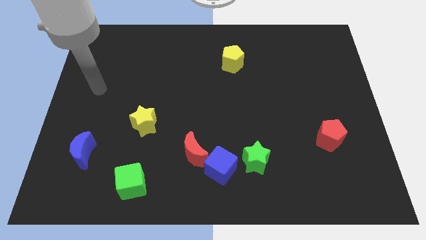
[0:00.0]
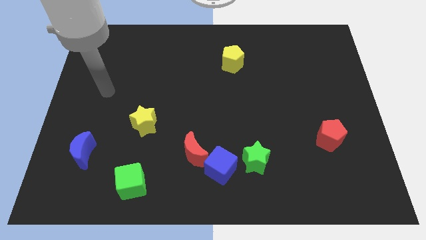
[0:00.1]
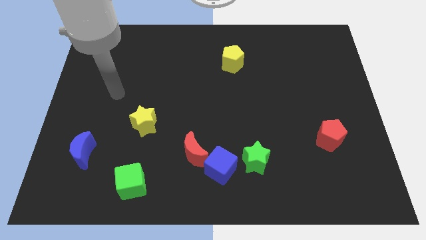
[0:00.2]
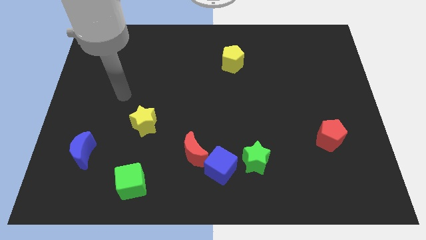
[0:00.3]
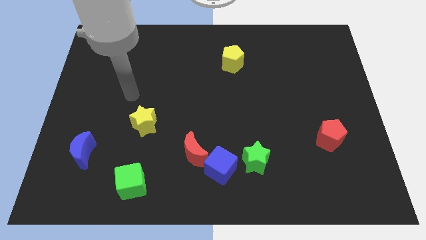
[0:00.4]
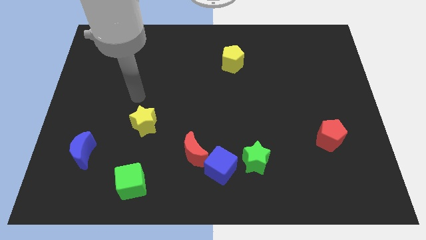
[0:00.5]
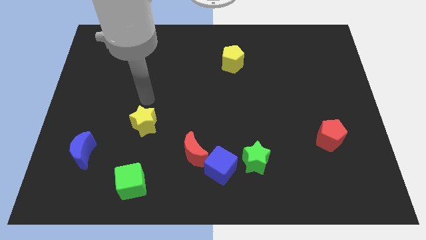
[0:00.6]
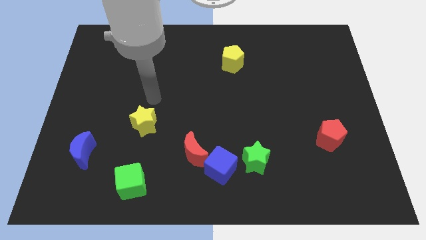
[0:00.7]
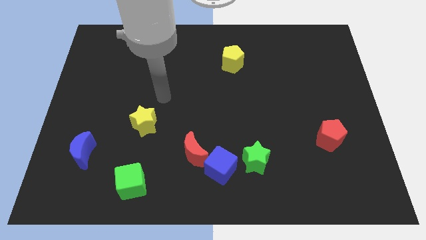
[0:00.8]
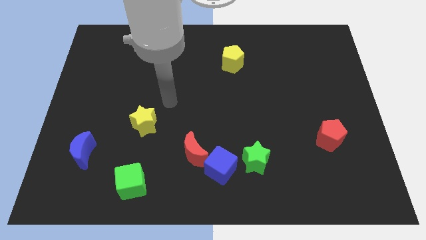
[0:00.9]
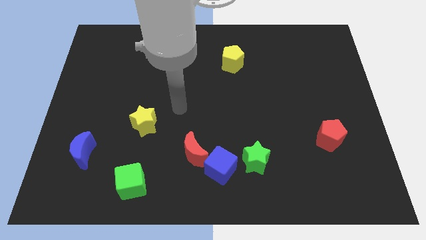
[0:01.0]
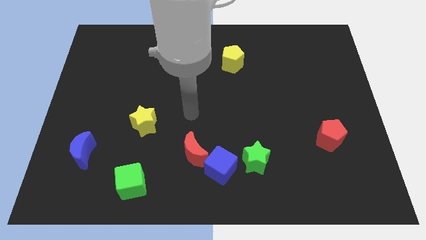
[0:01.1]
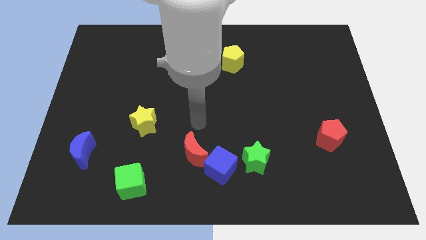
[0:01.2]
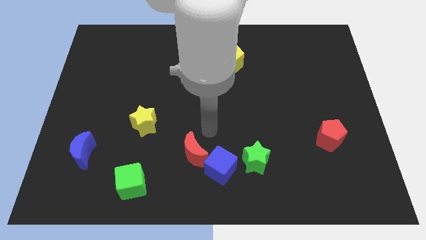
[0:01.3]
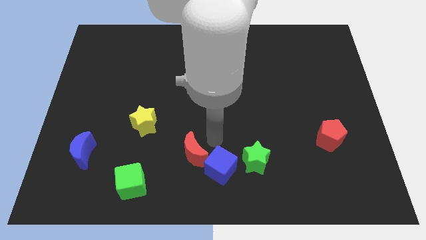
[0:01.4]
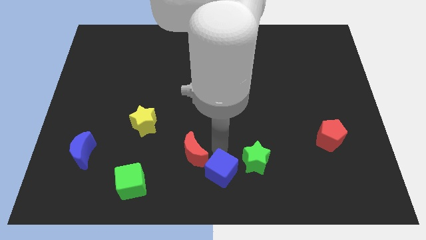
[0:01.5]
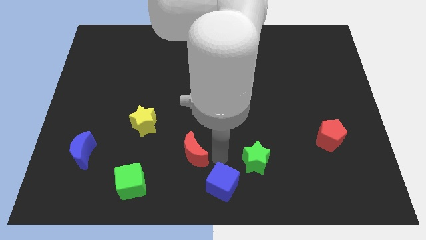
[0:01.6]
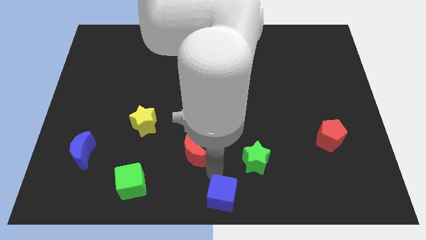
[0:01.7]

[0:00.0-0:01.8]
separate the red moon from the blue cube

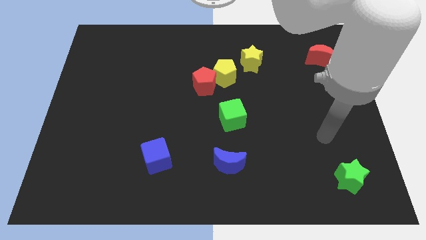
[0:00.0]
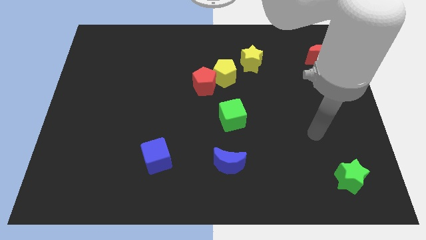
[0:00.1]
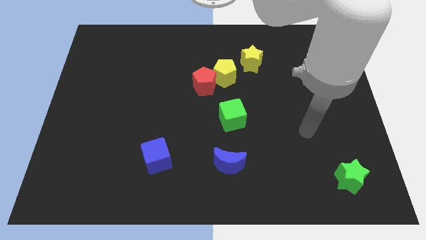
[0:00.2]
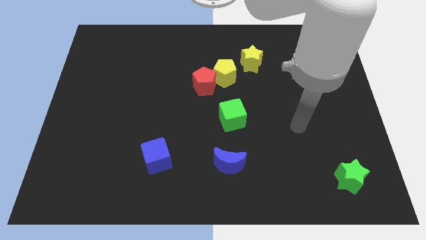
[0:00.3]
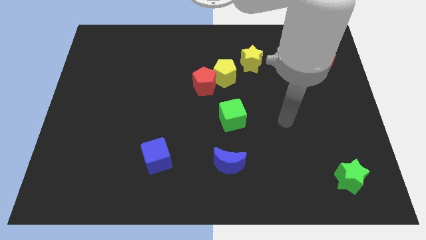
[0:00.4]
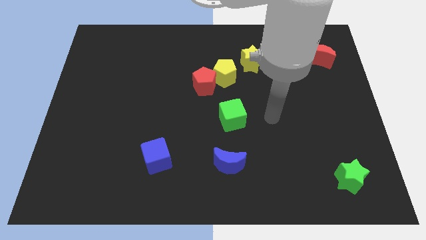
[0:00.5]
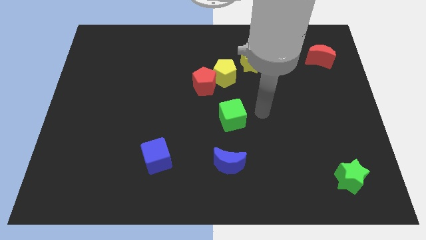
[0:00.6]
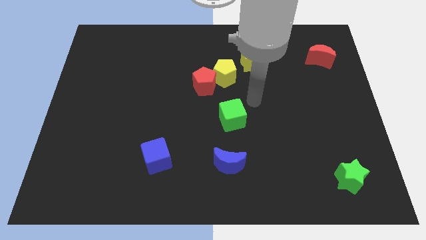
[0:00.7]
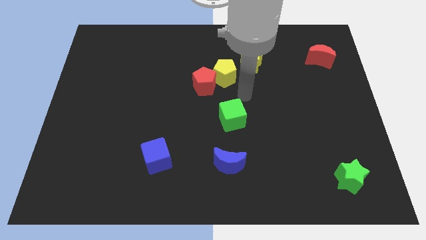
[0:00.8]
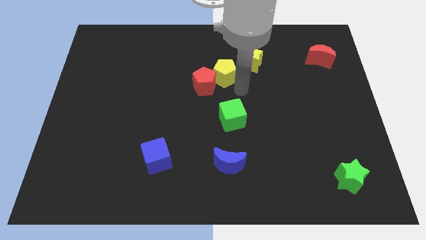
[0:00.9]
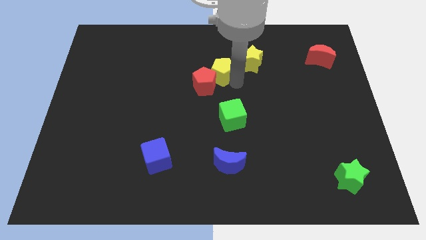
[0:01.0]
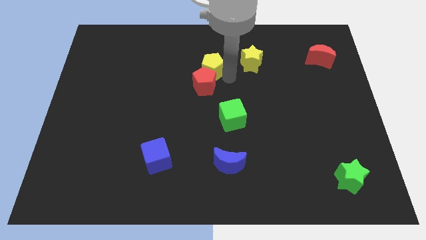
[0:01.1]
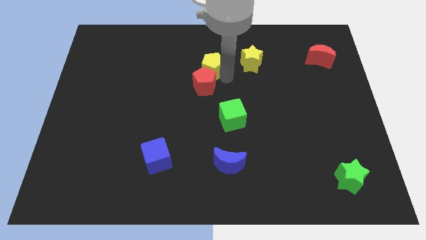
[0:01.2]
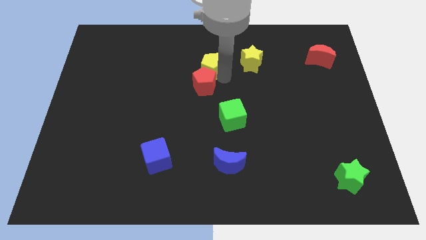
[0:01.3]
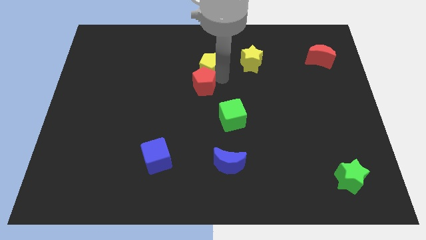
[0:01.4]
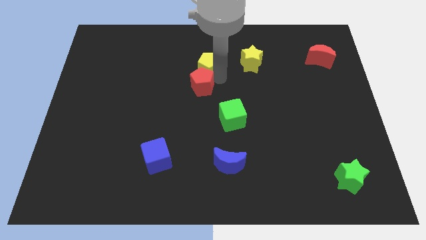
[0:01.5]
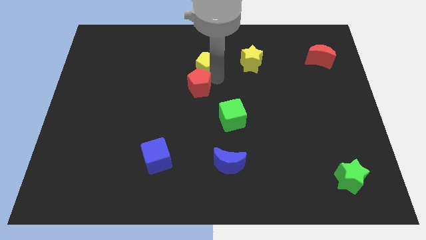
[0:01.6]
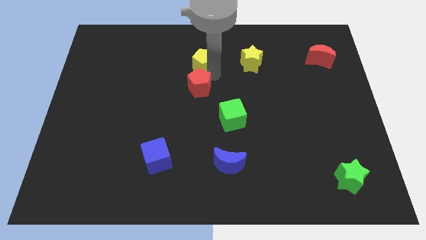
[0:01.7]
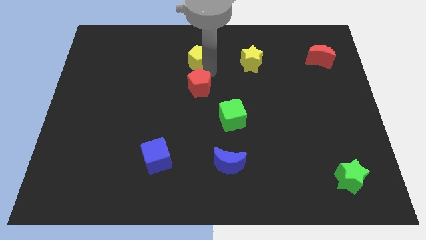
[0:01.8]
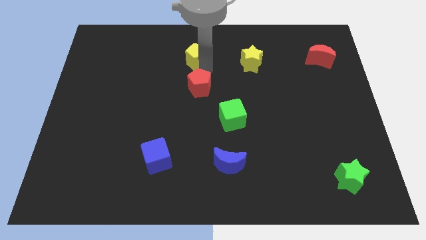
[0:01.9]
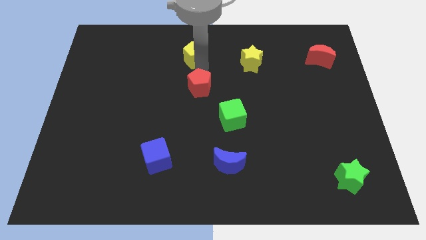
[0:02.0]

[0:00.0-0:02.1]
pull the red pentagon apart from the yellow pentagon

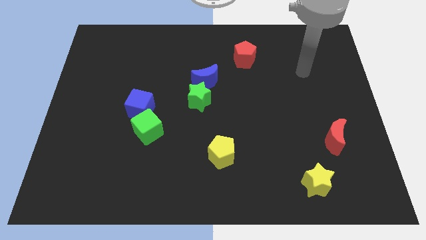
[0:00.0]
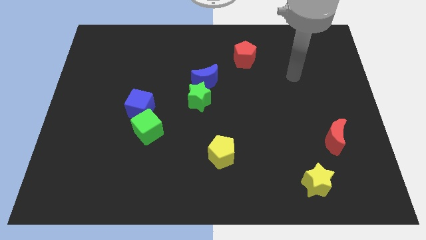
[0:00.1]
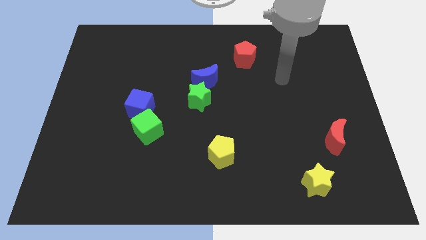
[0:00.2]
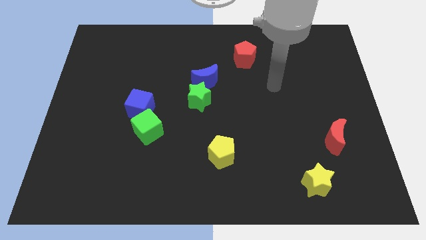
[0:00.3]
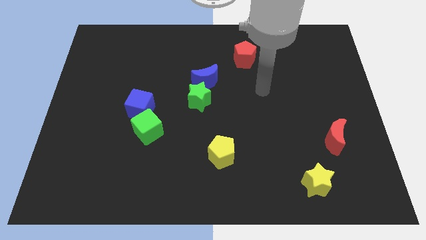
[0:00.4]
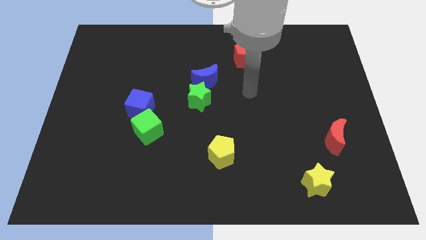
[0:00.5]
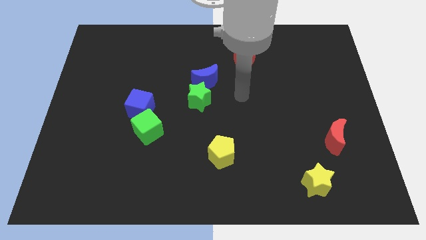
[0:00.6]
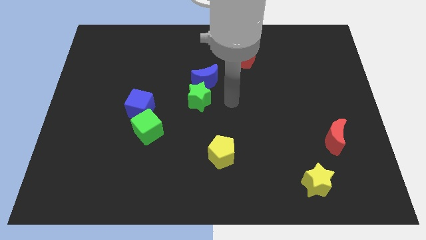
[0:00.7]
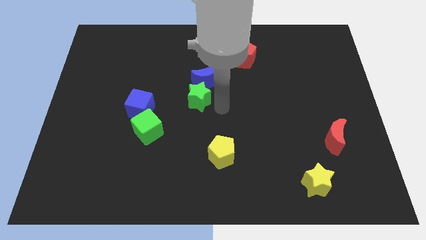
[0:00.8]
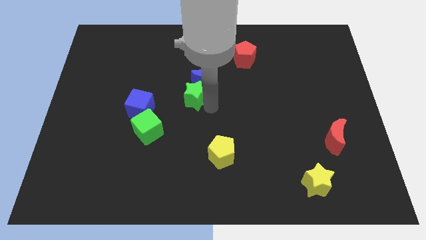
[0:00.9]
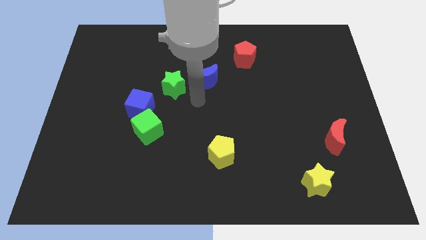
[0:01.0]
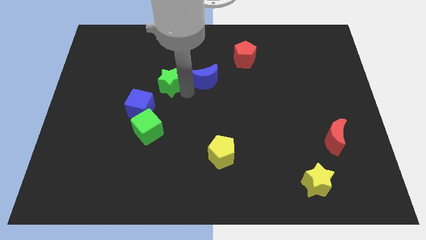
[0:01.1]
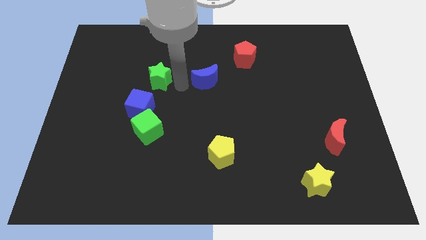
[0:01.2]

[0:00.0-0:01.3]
move the blue moon away from the green star

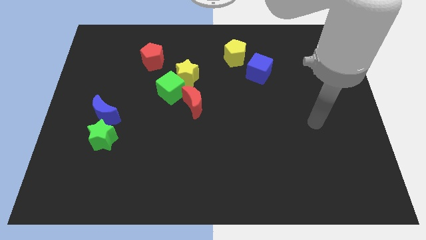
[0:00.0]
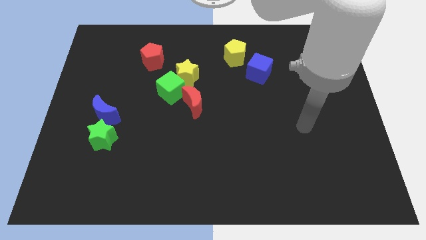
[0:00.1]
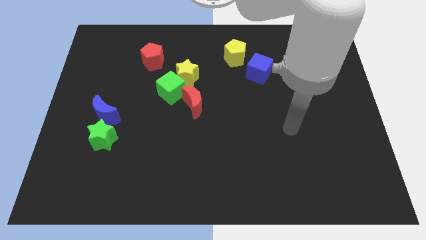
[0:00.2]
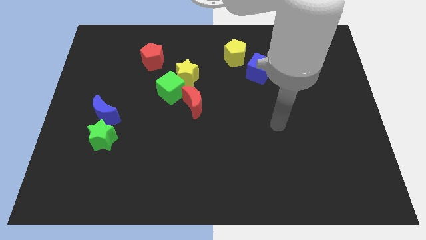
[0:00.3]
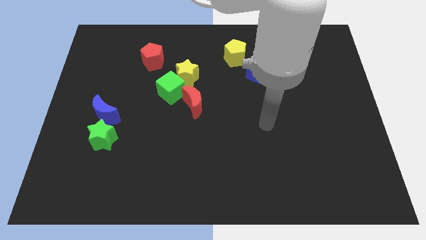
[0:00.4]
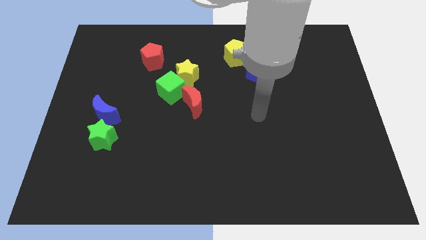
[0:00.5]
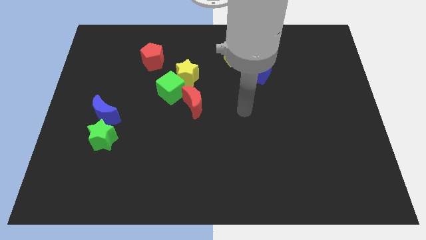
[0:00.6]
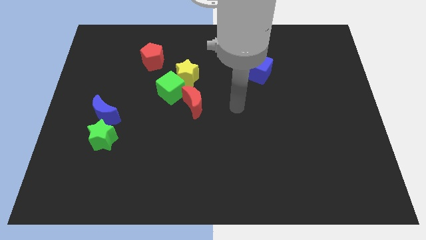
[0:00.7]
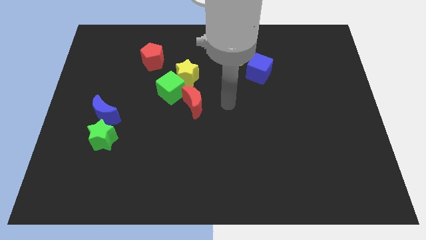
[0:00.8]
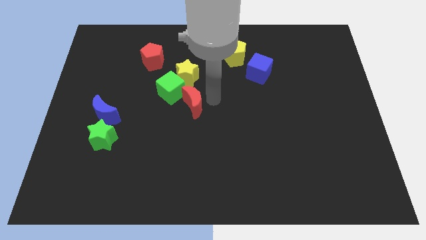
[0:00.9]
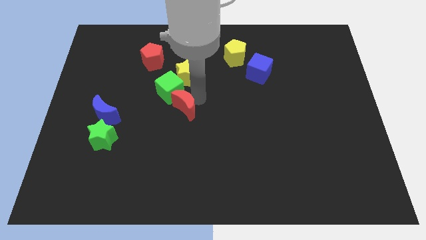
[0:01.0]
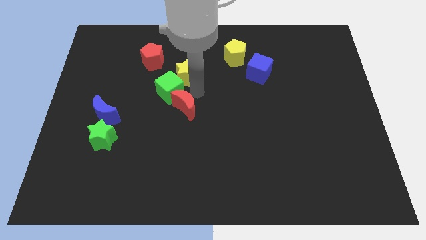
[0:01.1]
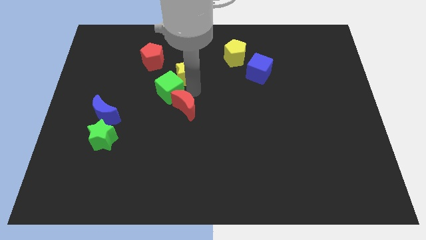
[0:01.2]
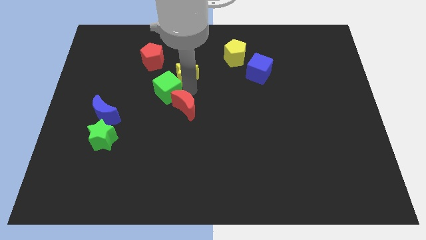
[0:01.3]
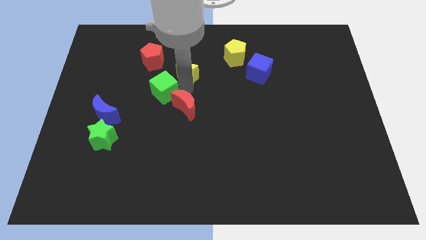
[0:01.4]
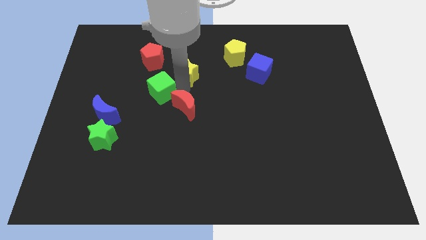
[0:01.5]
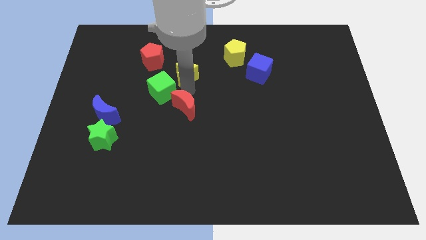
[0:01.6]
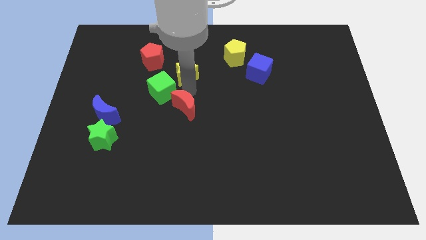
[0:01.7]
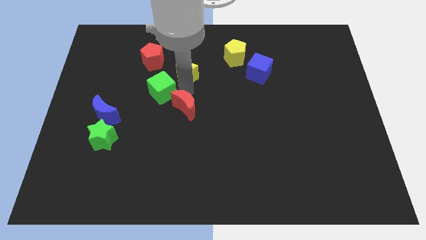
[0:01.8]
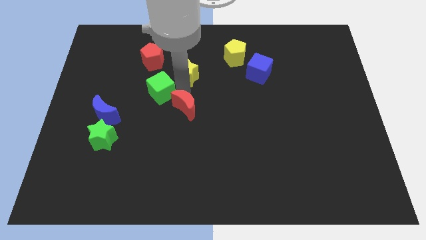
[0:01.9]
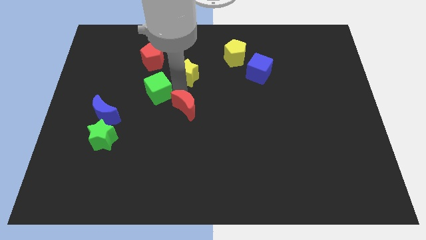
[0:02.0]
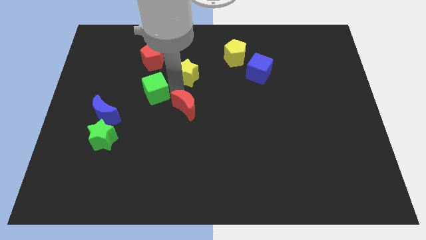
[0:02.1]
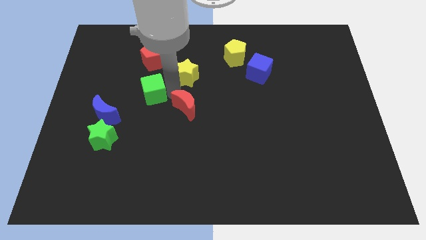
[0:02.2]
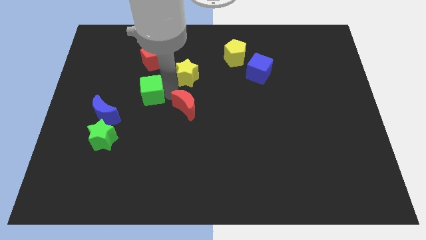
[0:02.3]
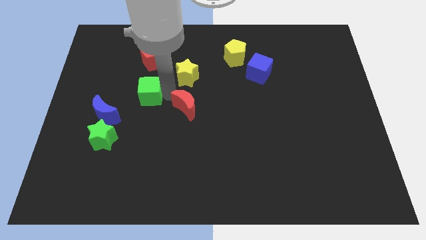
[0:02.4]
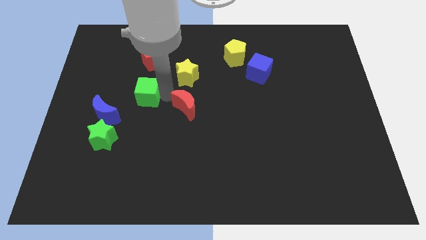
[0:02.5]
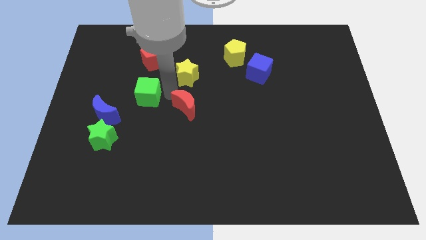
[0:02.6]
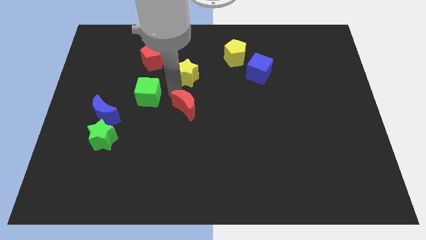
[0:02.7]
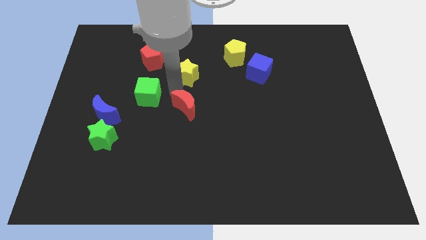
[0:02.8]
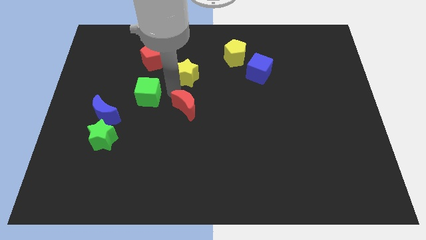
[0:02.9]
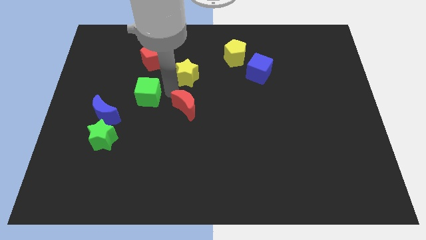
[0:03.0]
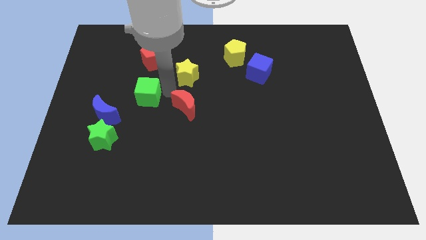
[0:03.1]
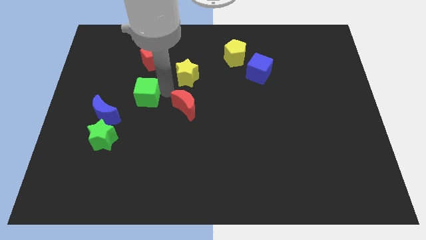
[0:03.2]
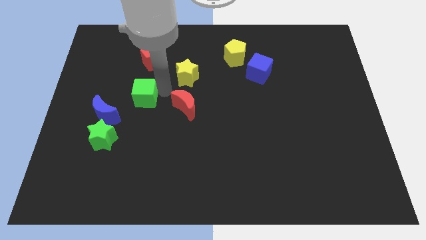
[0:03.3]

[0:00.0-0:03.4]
pull the green cube apart from the yellow star and red moon

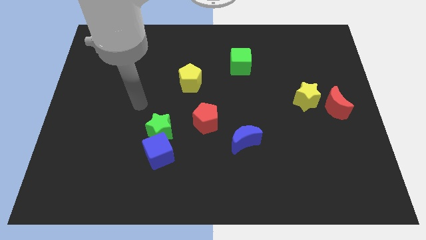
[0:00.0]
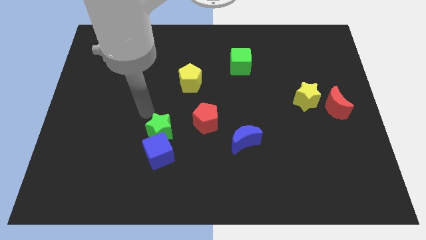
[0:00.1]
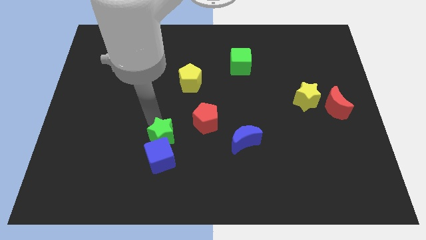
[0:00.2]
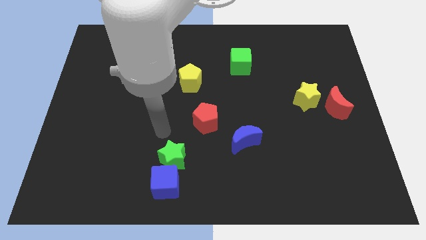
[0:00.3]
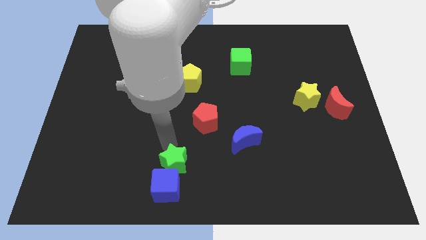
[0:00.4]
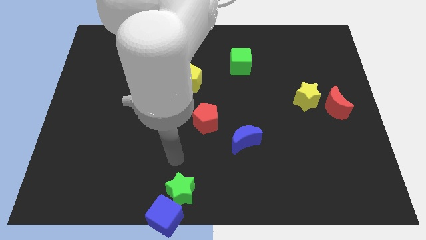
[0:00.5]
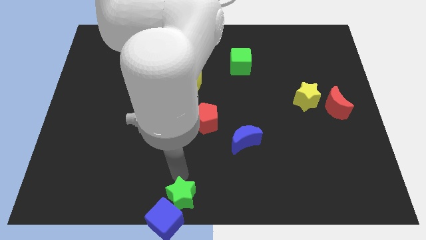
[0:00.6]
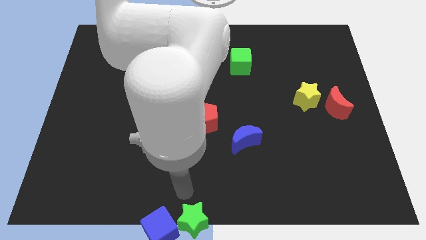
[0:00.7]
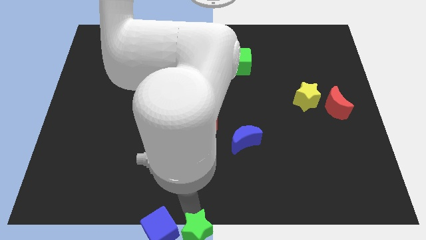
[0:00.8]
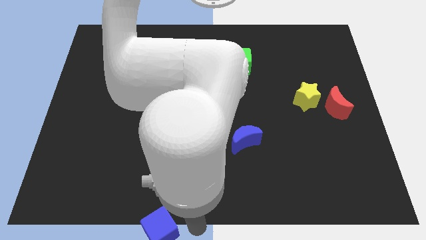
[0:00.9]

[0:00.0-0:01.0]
separate the blue cube from the green star
